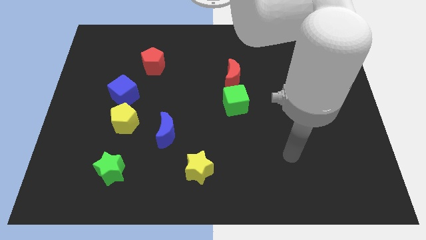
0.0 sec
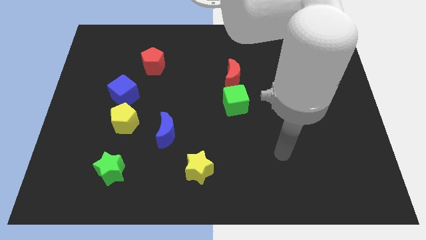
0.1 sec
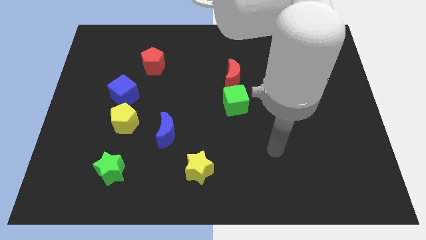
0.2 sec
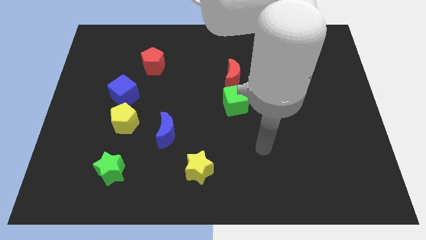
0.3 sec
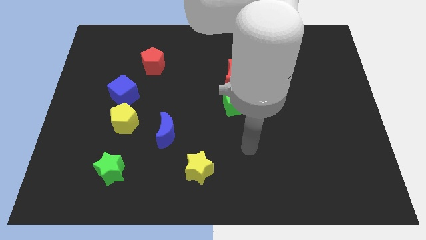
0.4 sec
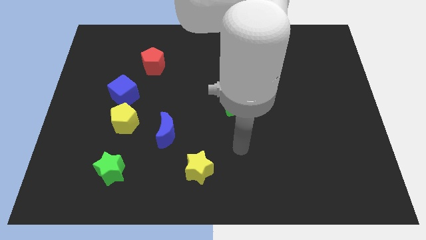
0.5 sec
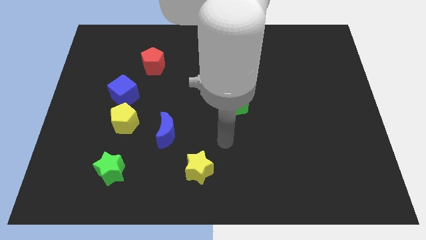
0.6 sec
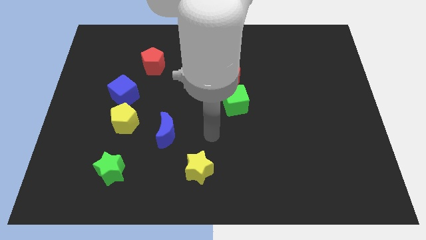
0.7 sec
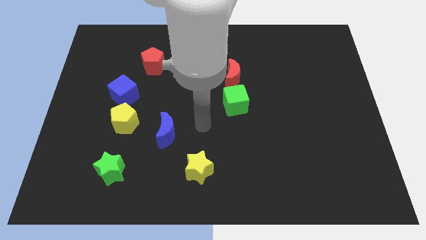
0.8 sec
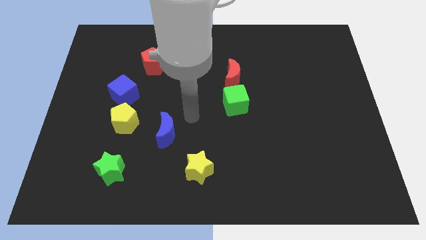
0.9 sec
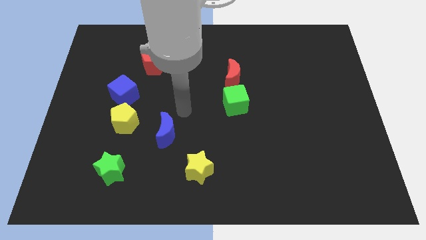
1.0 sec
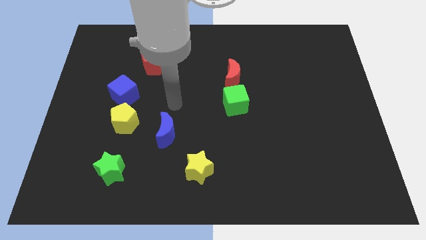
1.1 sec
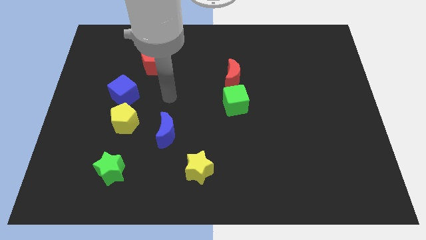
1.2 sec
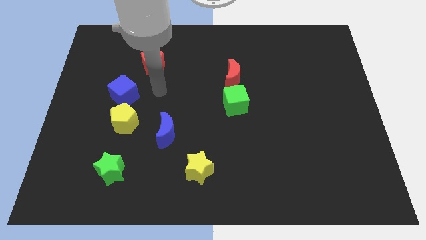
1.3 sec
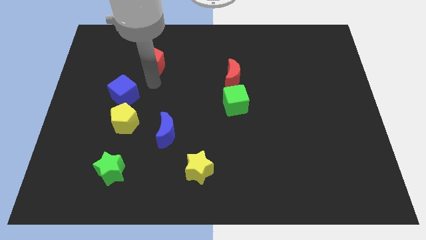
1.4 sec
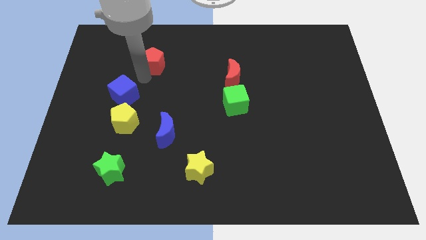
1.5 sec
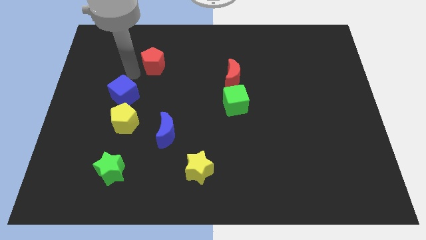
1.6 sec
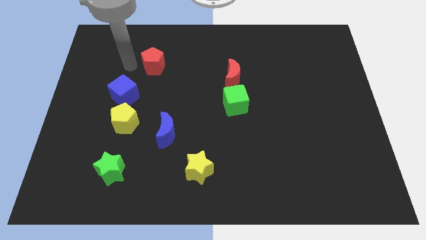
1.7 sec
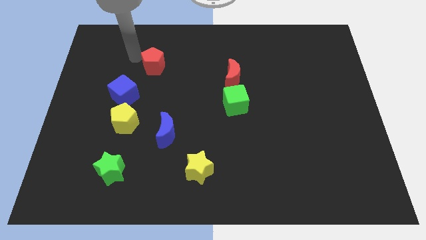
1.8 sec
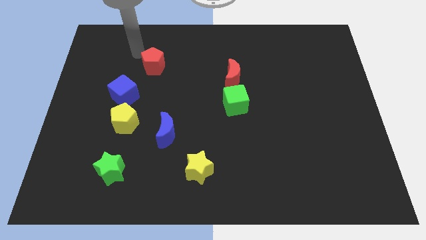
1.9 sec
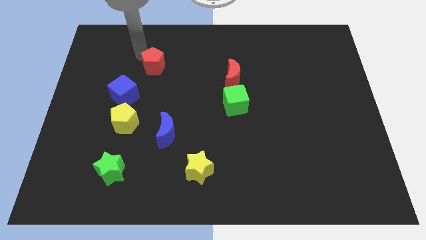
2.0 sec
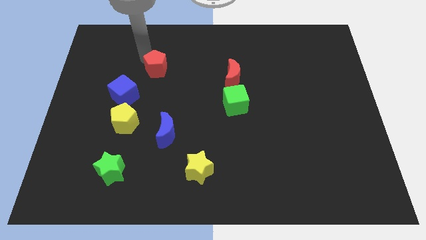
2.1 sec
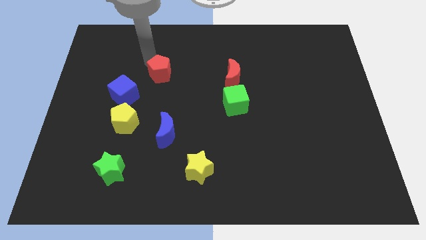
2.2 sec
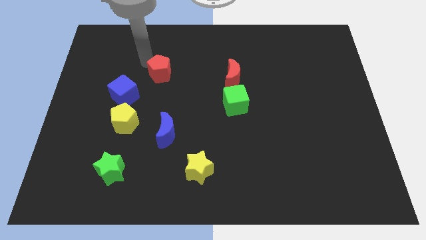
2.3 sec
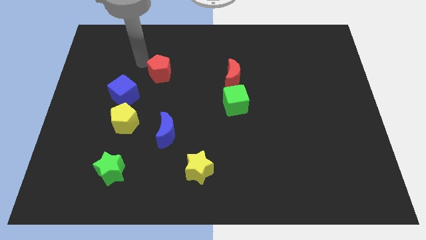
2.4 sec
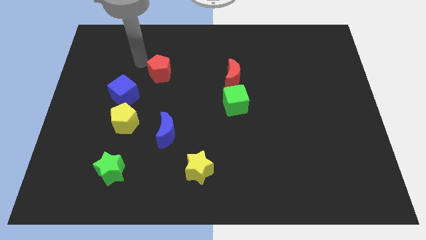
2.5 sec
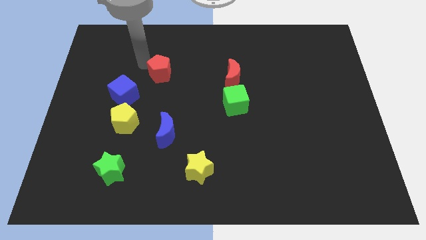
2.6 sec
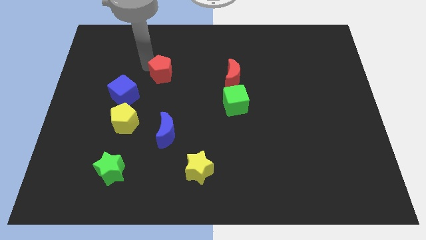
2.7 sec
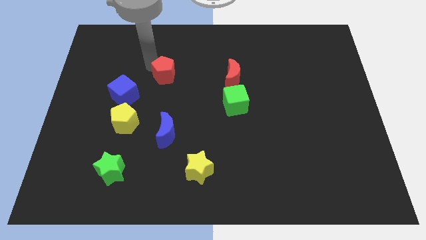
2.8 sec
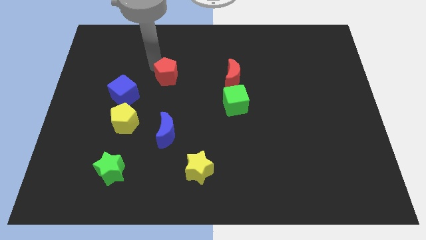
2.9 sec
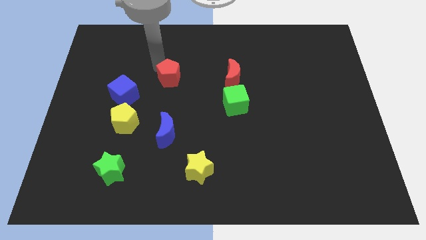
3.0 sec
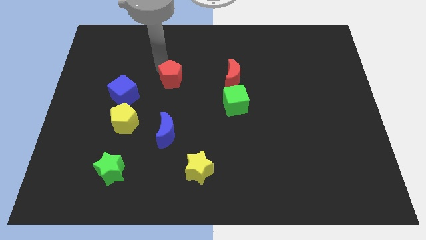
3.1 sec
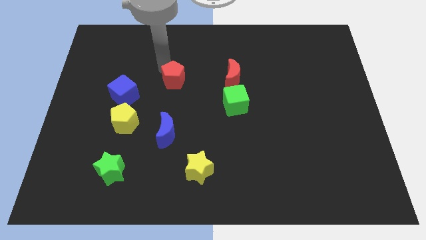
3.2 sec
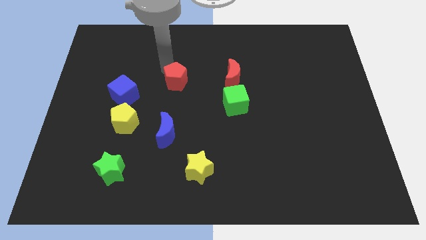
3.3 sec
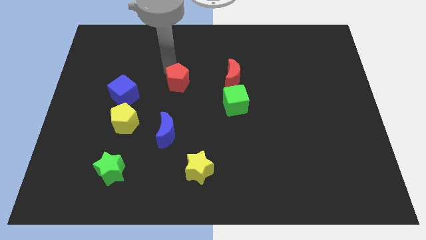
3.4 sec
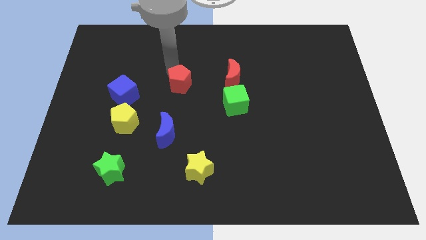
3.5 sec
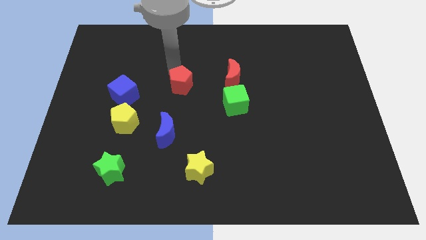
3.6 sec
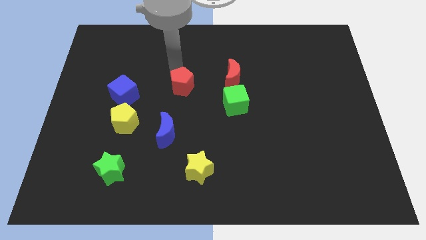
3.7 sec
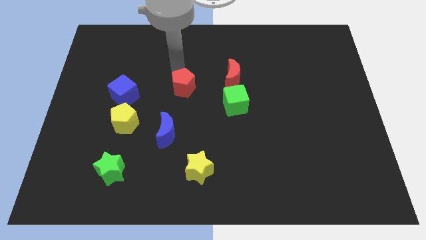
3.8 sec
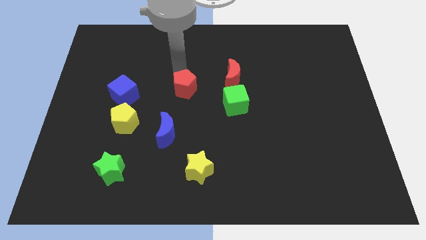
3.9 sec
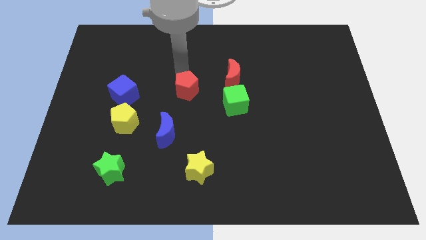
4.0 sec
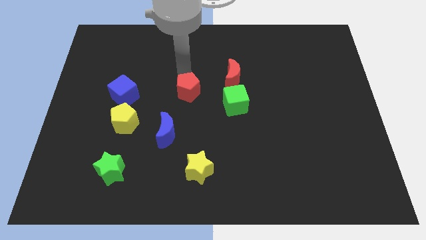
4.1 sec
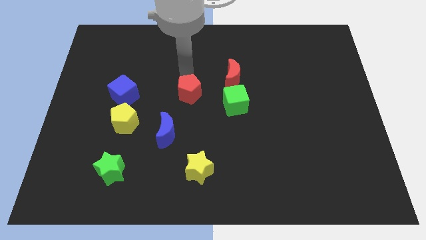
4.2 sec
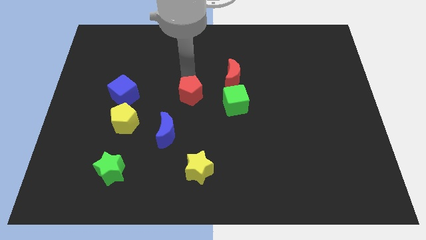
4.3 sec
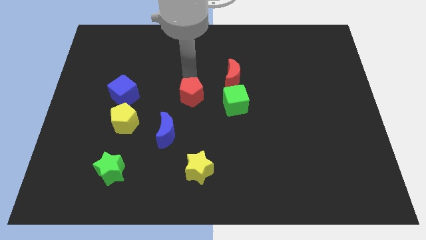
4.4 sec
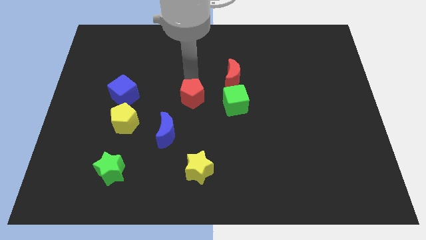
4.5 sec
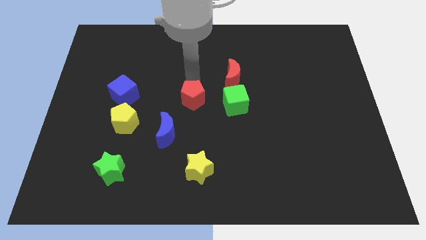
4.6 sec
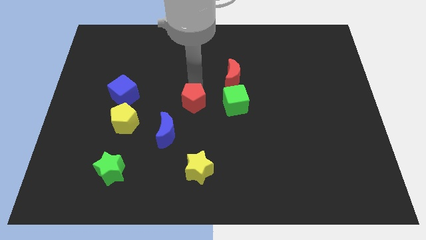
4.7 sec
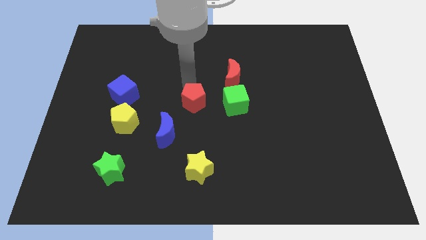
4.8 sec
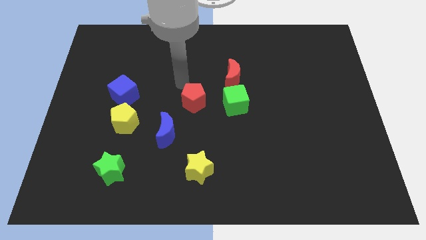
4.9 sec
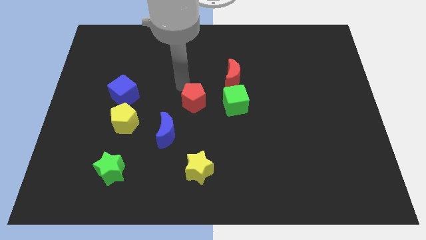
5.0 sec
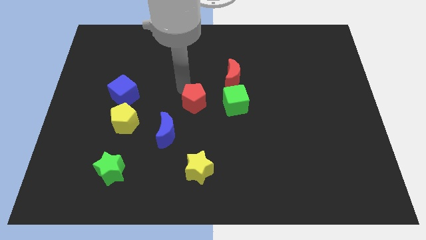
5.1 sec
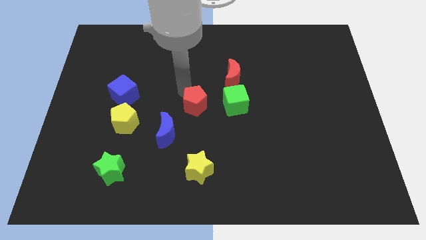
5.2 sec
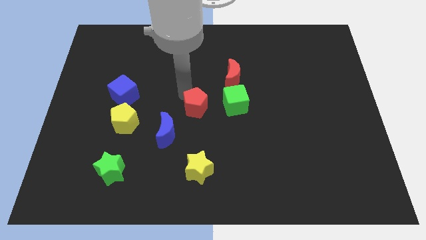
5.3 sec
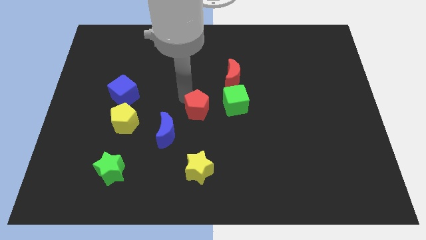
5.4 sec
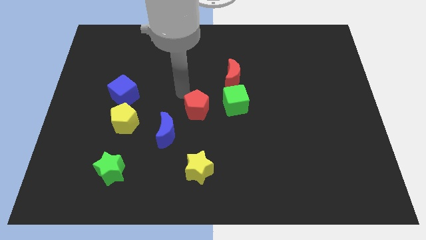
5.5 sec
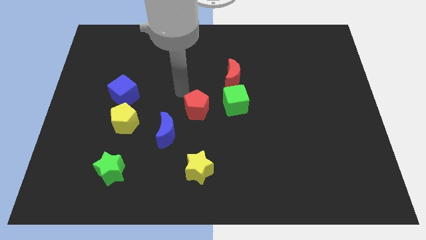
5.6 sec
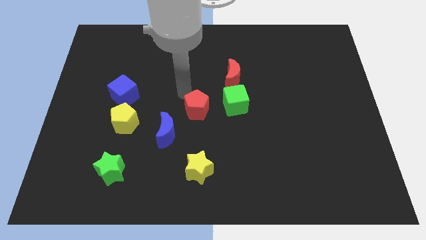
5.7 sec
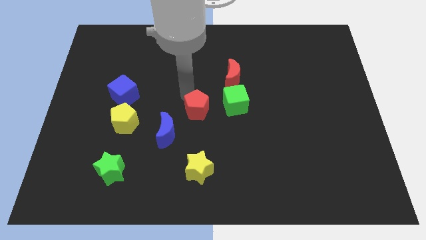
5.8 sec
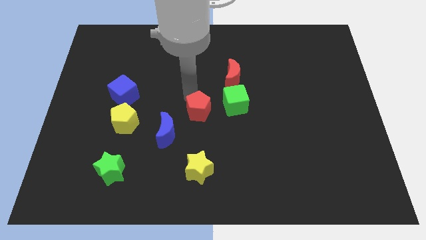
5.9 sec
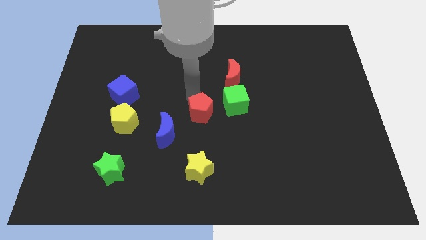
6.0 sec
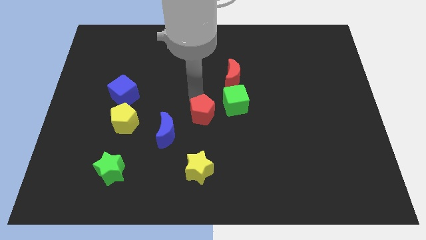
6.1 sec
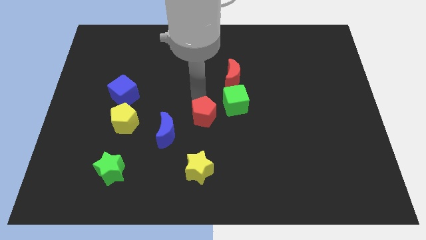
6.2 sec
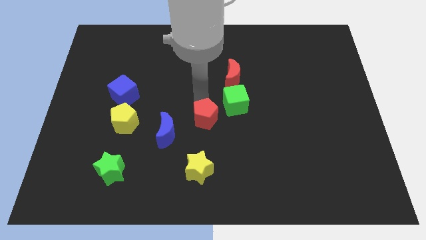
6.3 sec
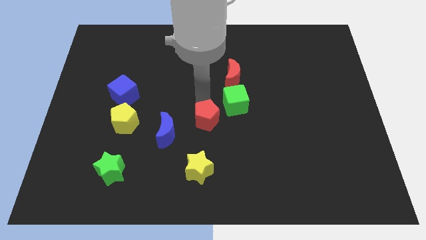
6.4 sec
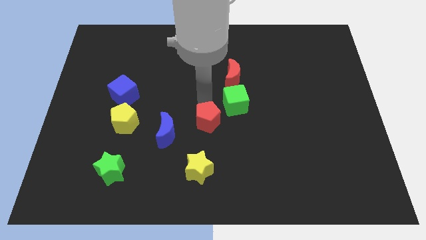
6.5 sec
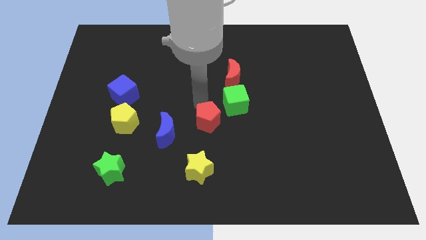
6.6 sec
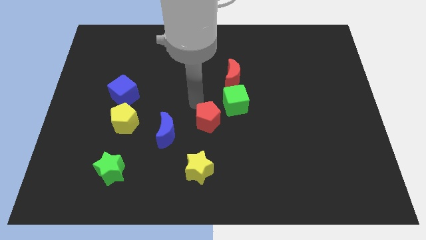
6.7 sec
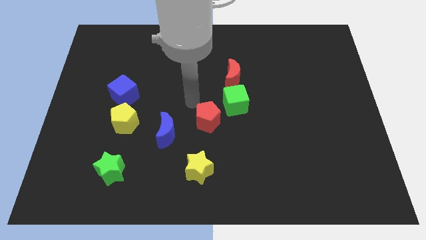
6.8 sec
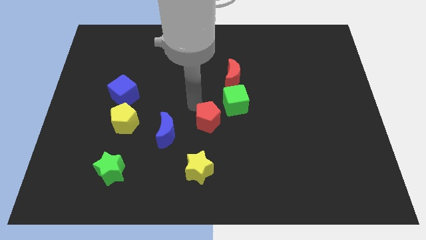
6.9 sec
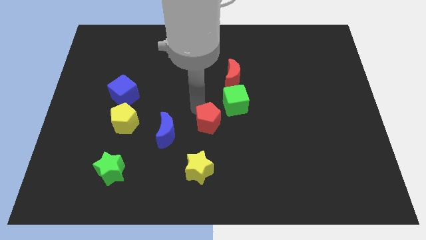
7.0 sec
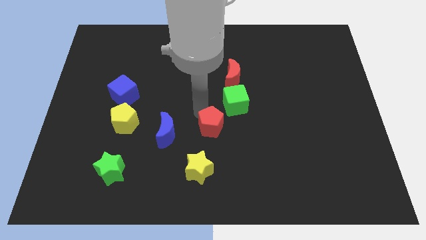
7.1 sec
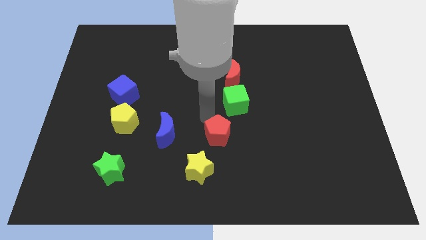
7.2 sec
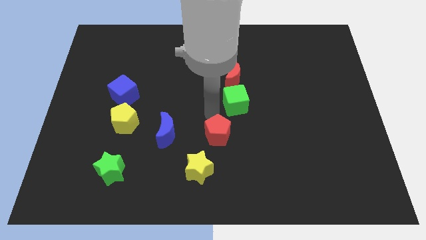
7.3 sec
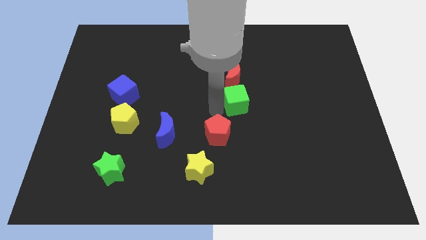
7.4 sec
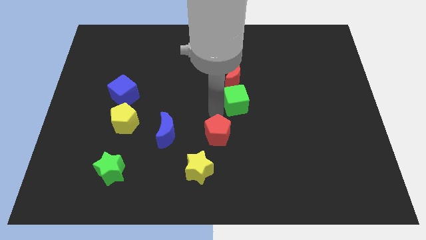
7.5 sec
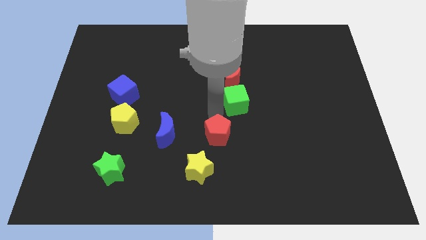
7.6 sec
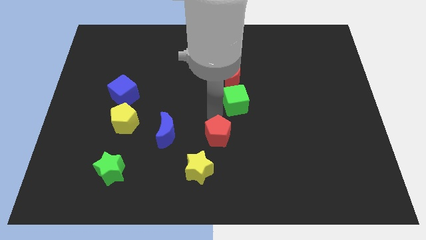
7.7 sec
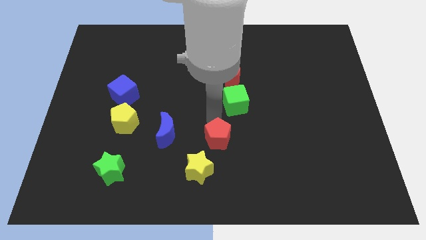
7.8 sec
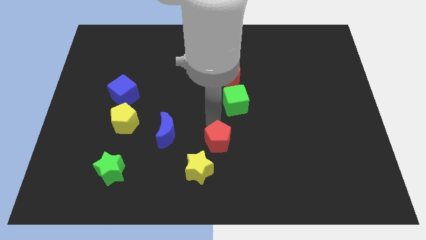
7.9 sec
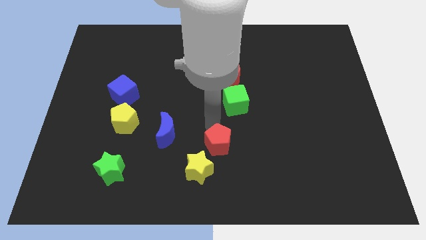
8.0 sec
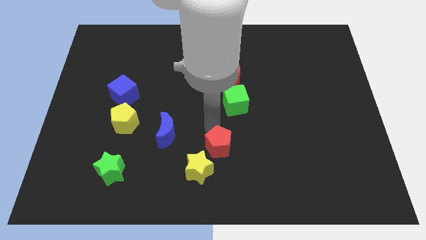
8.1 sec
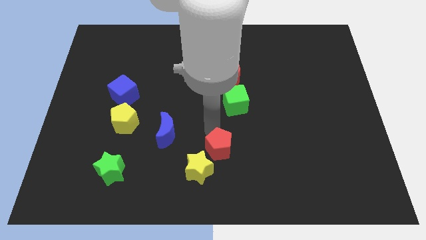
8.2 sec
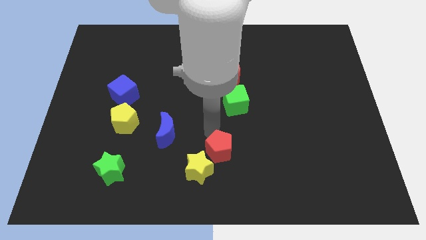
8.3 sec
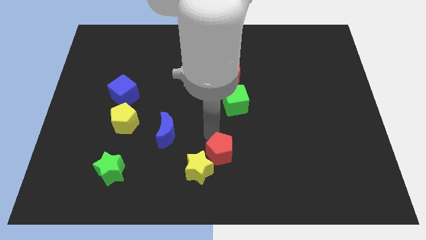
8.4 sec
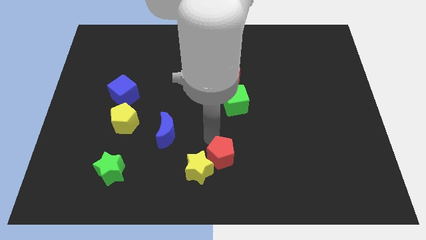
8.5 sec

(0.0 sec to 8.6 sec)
slide the red pentagon to the bottom side
